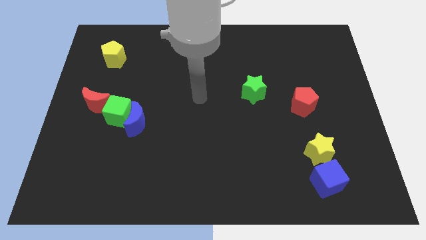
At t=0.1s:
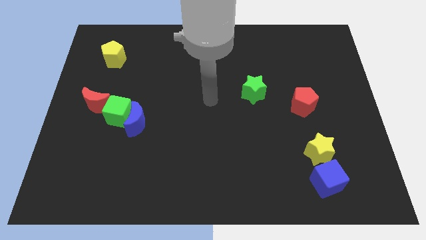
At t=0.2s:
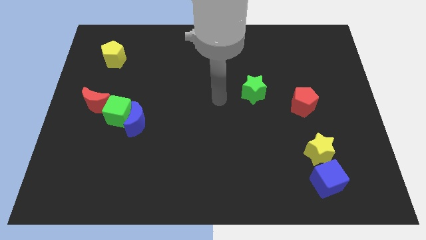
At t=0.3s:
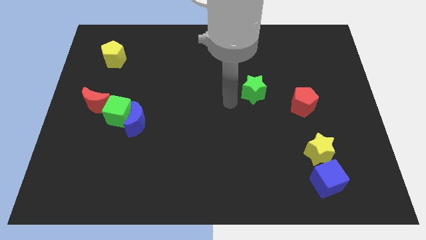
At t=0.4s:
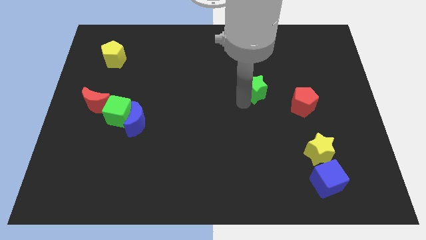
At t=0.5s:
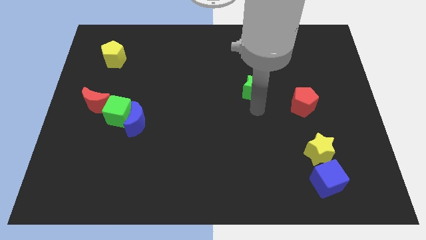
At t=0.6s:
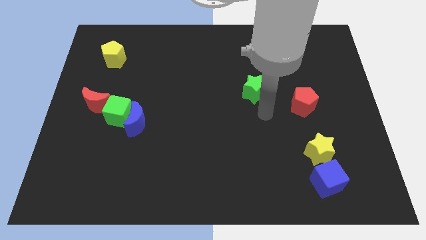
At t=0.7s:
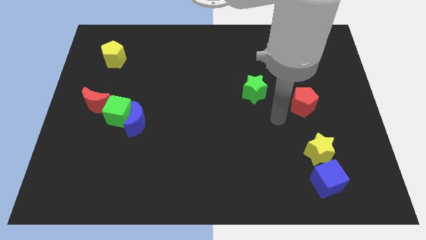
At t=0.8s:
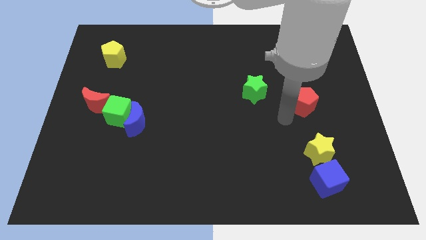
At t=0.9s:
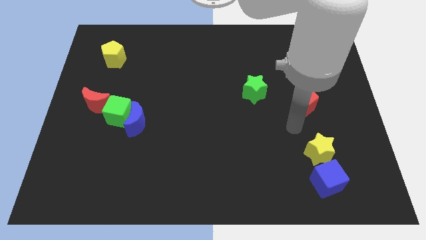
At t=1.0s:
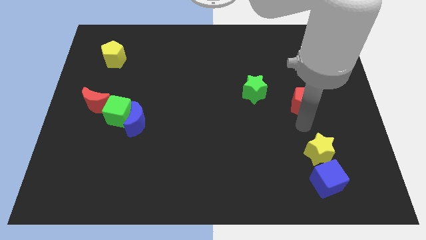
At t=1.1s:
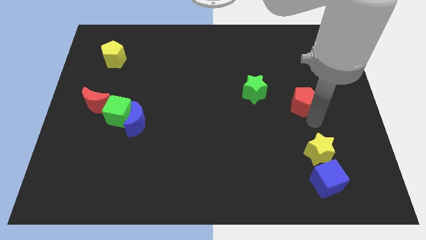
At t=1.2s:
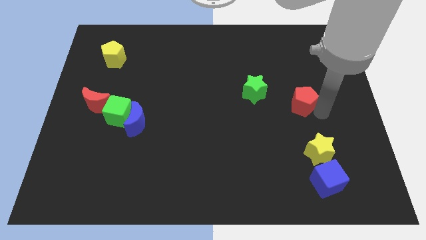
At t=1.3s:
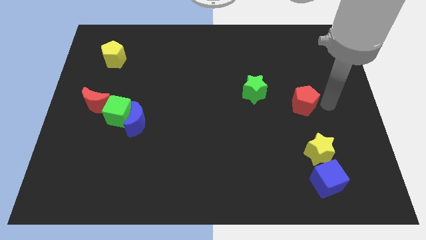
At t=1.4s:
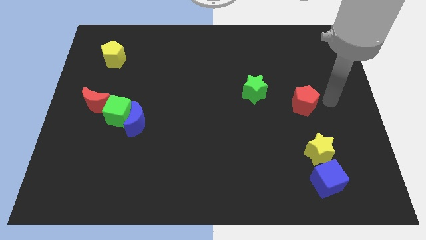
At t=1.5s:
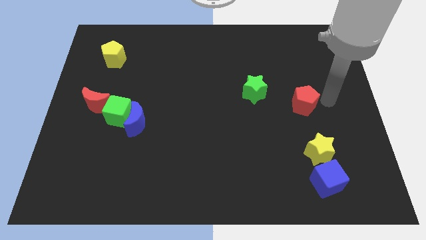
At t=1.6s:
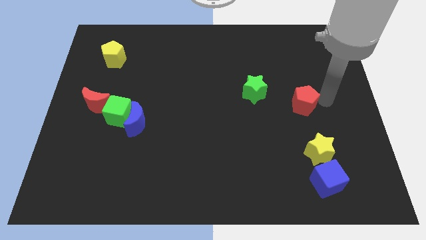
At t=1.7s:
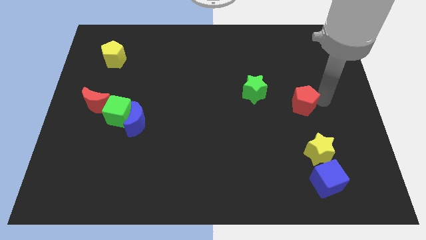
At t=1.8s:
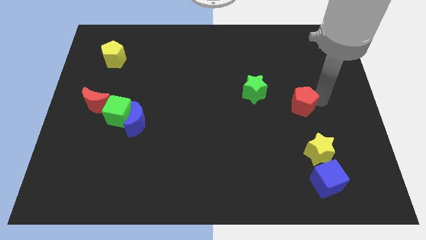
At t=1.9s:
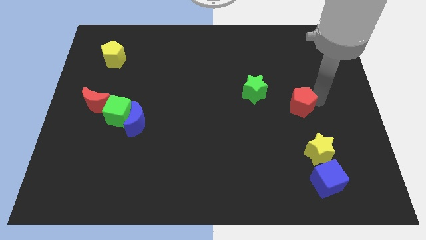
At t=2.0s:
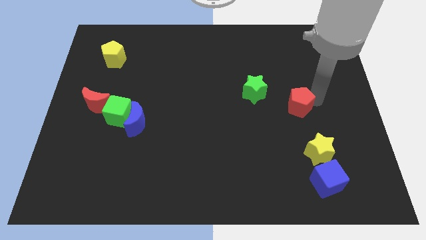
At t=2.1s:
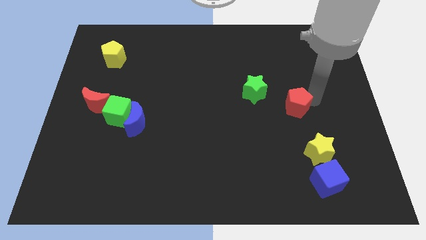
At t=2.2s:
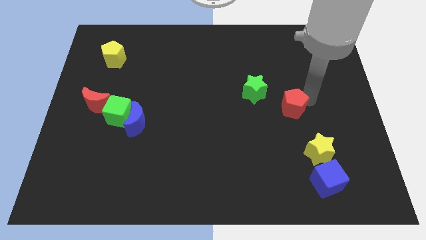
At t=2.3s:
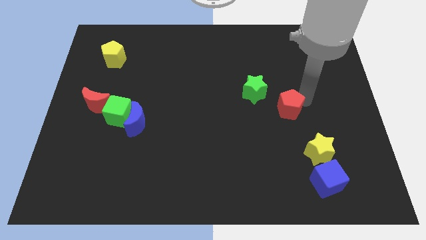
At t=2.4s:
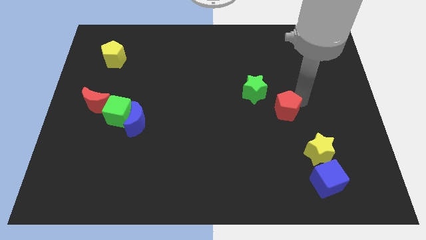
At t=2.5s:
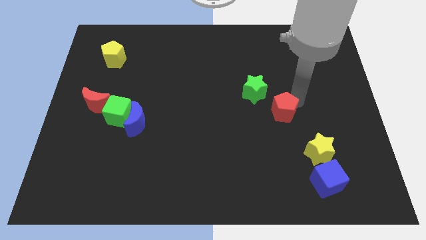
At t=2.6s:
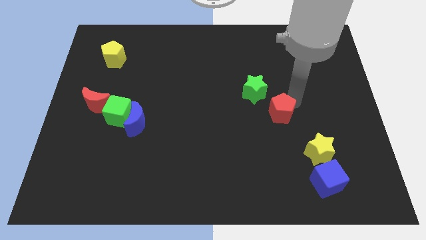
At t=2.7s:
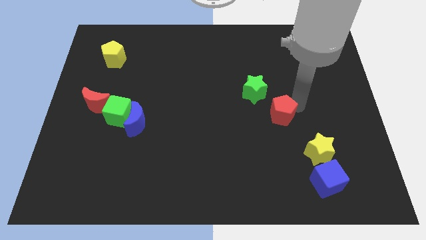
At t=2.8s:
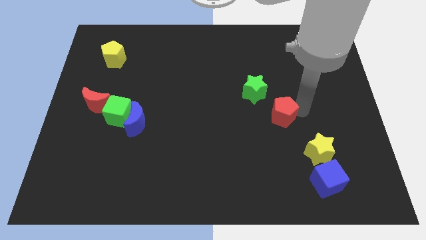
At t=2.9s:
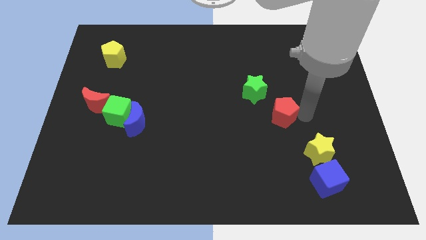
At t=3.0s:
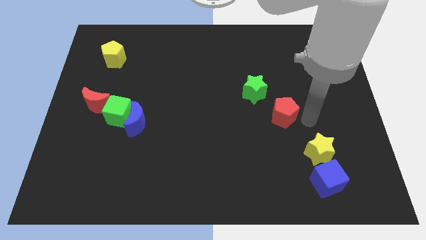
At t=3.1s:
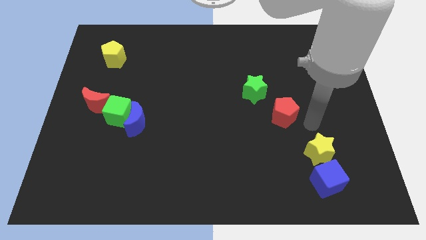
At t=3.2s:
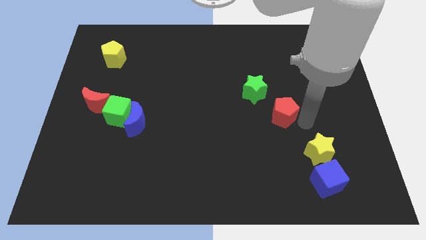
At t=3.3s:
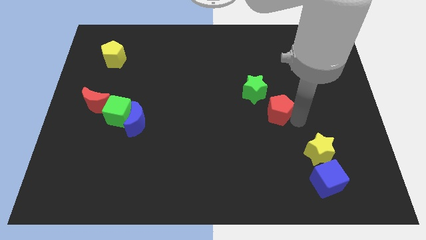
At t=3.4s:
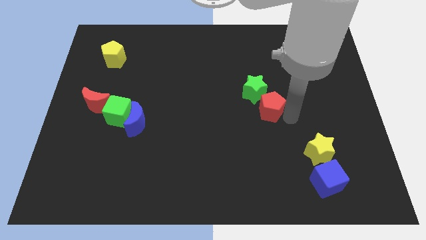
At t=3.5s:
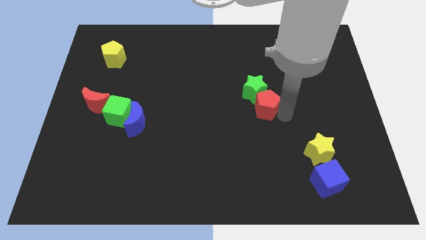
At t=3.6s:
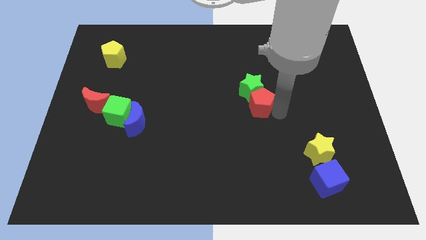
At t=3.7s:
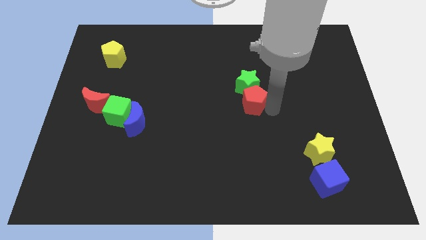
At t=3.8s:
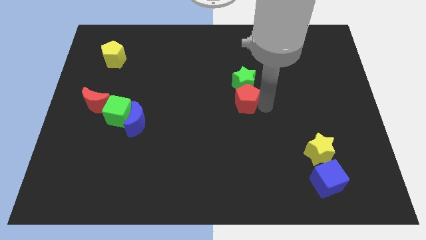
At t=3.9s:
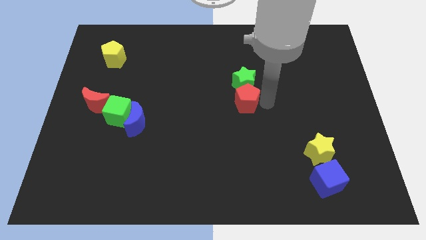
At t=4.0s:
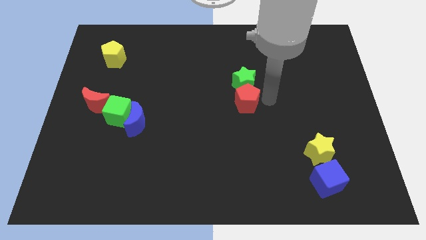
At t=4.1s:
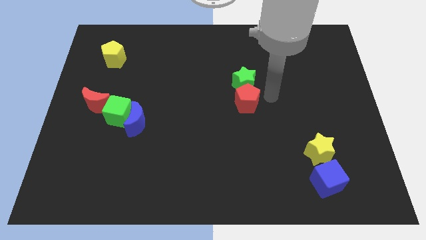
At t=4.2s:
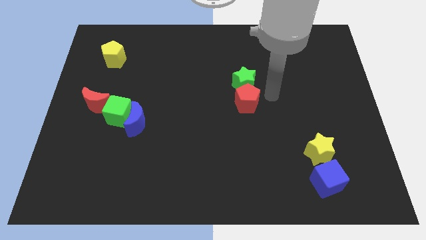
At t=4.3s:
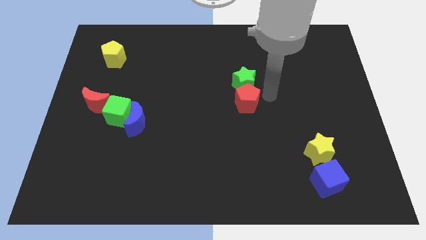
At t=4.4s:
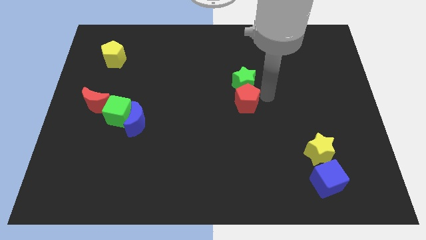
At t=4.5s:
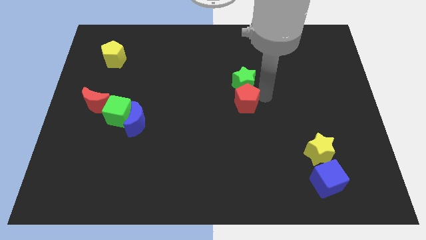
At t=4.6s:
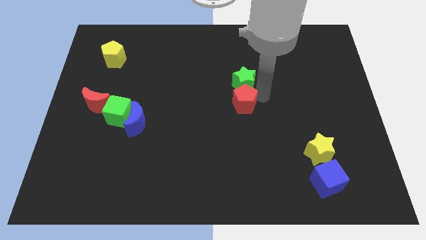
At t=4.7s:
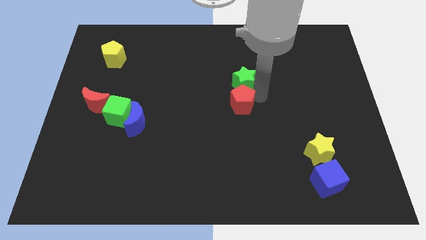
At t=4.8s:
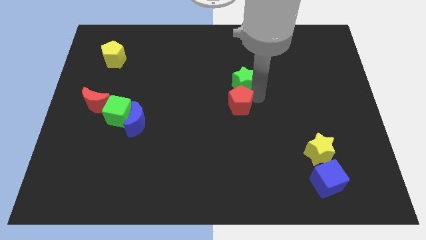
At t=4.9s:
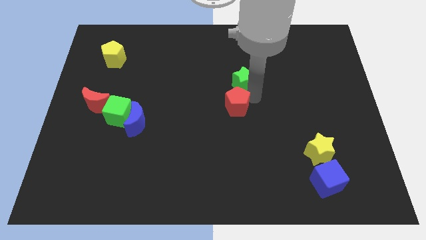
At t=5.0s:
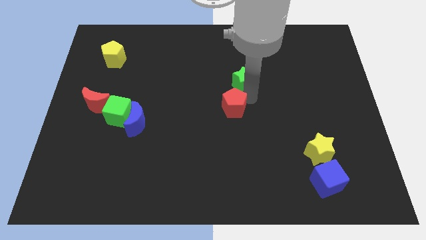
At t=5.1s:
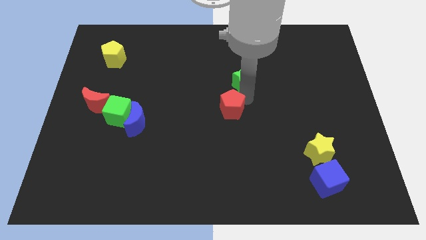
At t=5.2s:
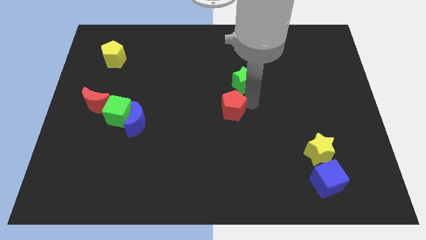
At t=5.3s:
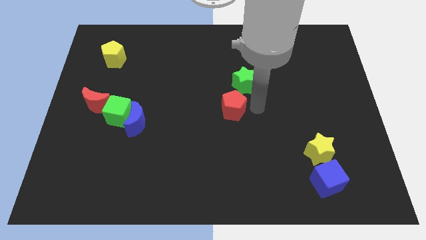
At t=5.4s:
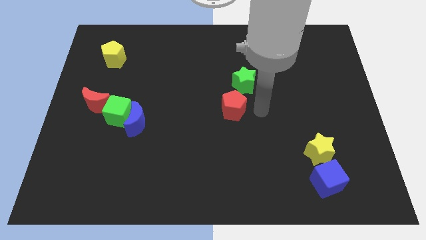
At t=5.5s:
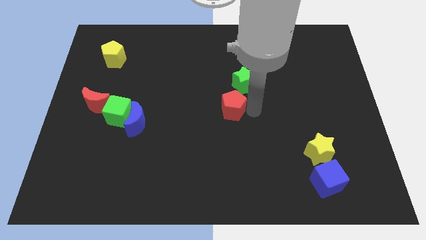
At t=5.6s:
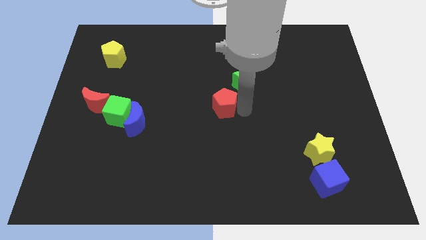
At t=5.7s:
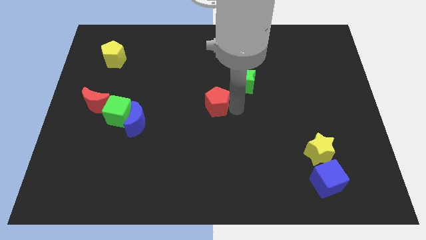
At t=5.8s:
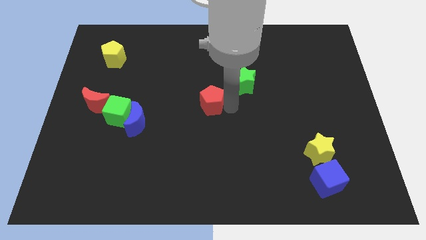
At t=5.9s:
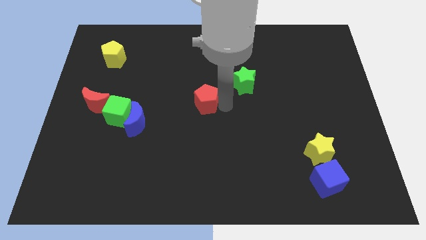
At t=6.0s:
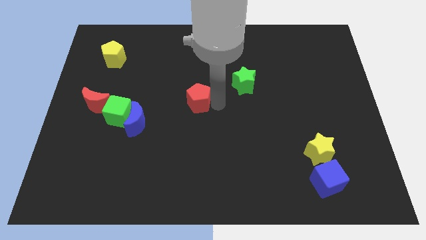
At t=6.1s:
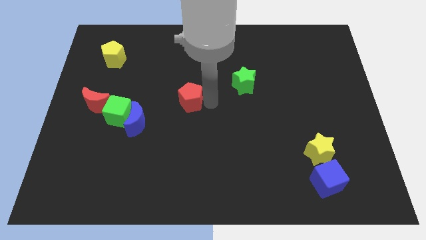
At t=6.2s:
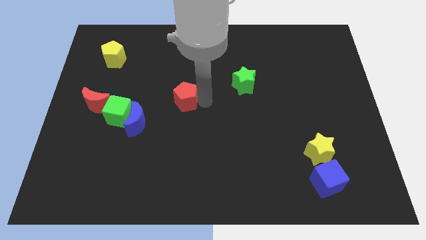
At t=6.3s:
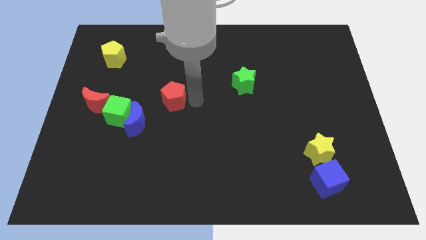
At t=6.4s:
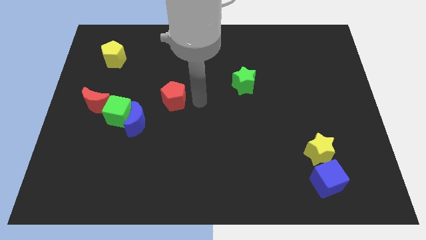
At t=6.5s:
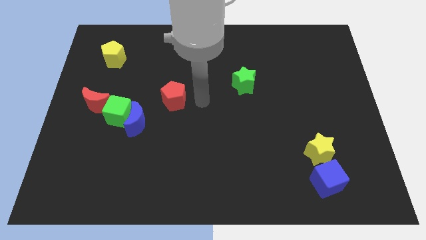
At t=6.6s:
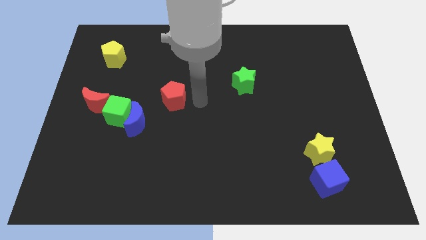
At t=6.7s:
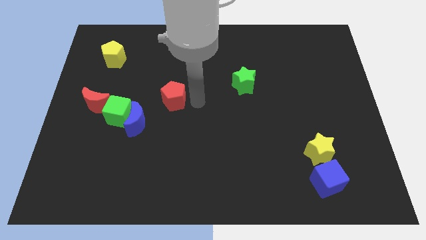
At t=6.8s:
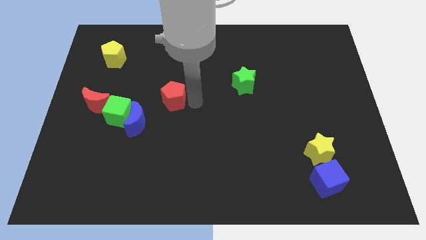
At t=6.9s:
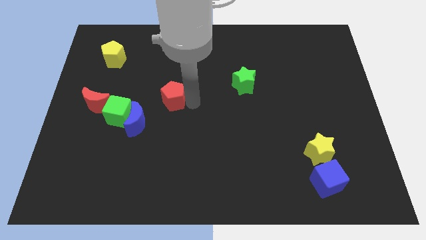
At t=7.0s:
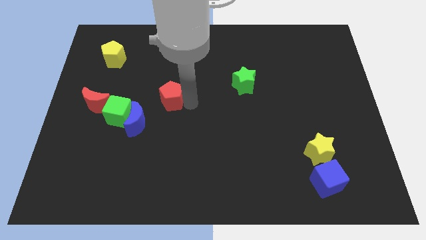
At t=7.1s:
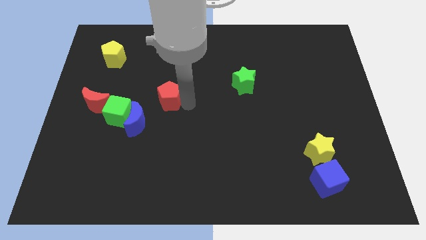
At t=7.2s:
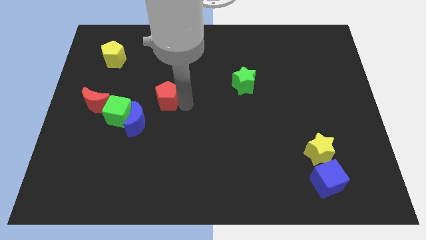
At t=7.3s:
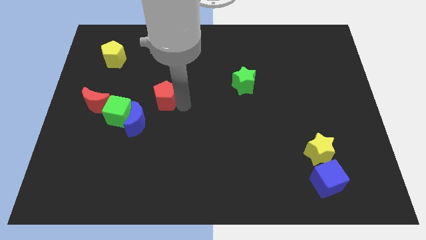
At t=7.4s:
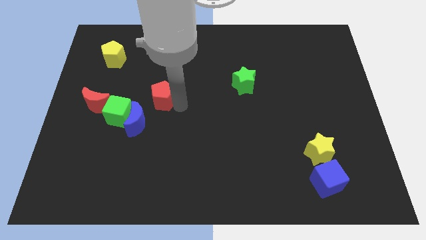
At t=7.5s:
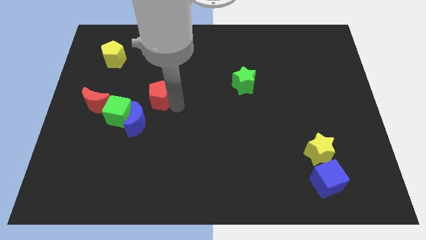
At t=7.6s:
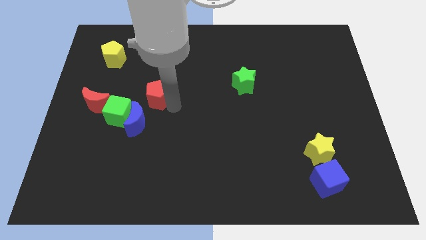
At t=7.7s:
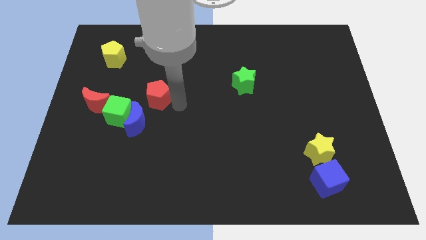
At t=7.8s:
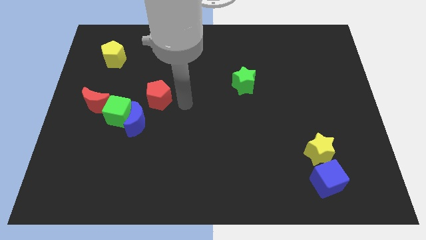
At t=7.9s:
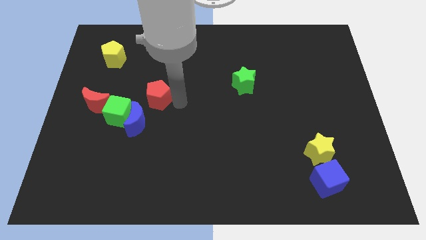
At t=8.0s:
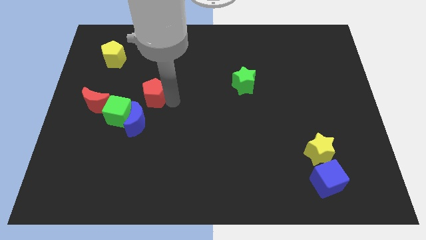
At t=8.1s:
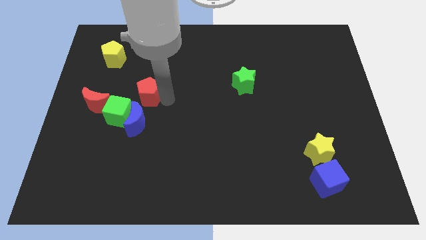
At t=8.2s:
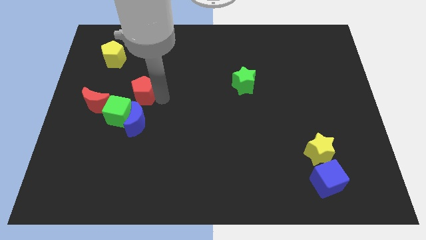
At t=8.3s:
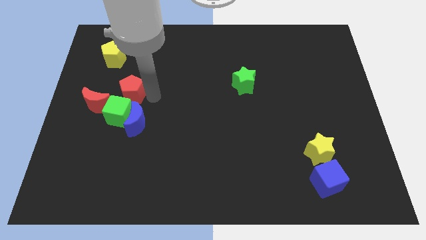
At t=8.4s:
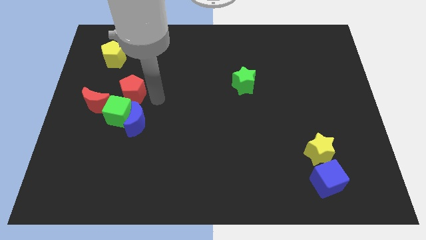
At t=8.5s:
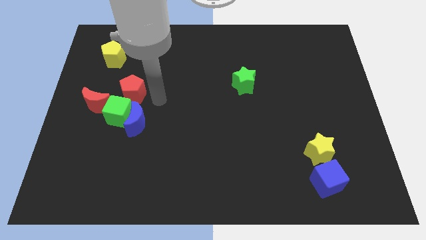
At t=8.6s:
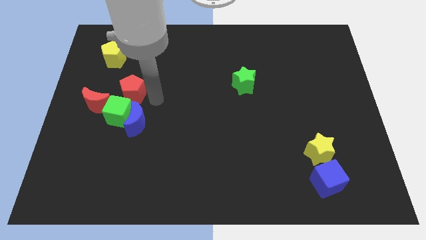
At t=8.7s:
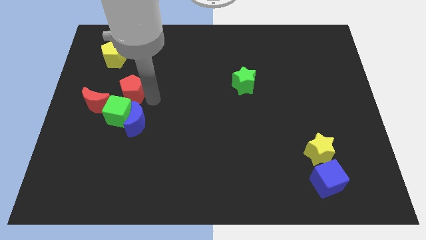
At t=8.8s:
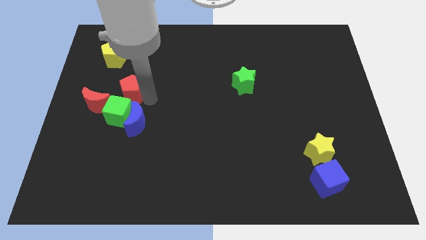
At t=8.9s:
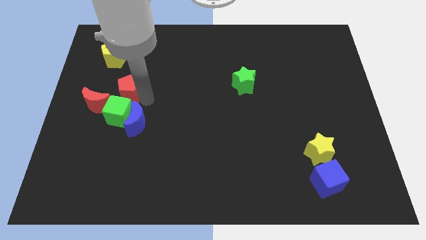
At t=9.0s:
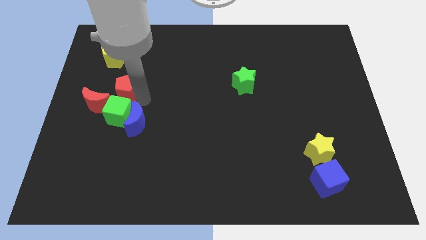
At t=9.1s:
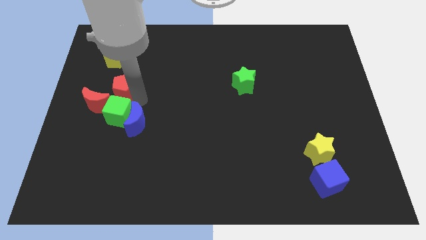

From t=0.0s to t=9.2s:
move the red pentagon to the bottom of the yellow pentagon
